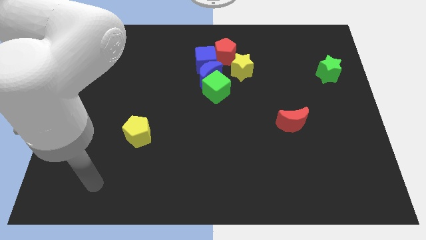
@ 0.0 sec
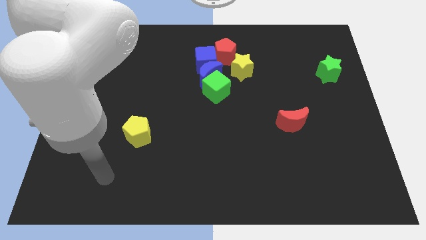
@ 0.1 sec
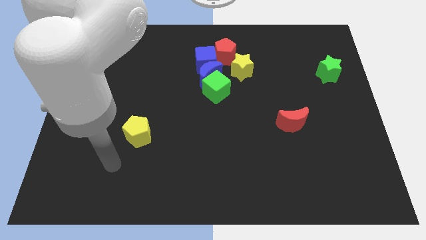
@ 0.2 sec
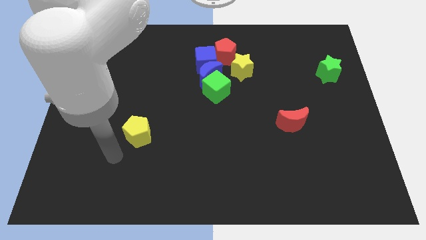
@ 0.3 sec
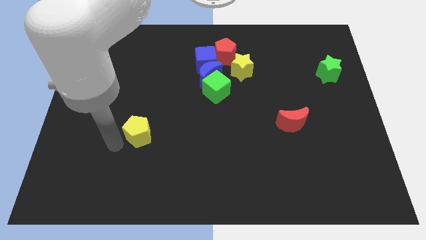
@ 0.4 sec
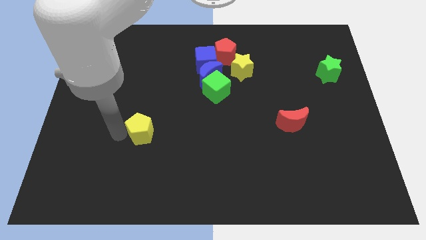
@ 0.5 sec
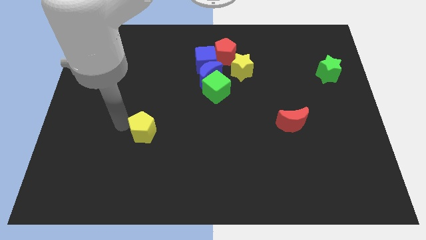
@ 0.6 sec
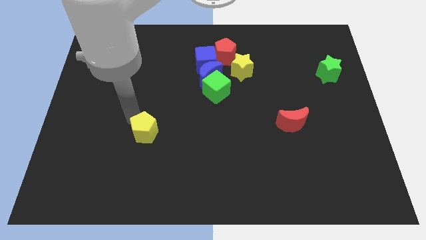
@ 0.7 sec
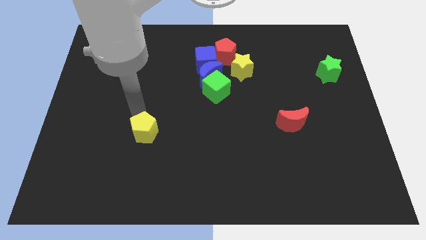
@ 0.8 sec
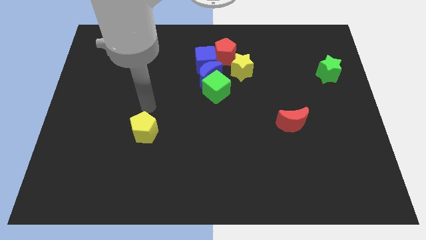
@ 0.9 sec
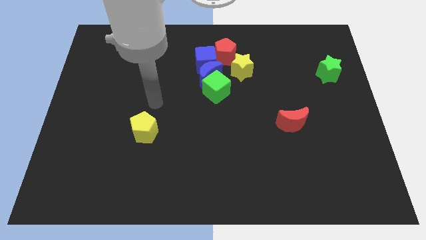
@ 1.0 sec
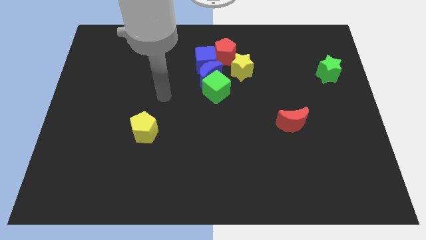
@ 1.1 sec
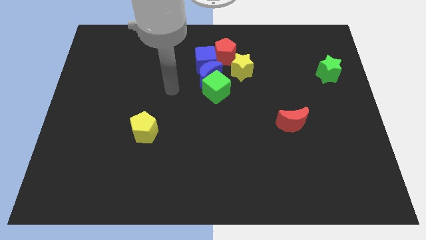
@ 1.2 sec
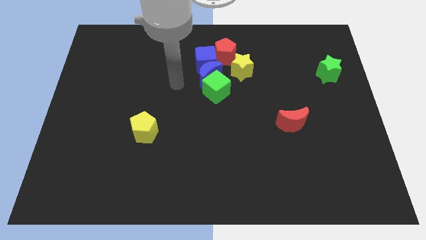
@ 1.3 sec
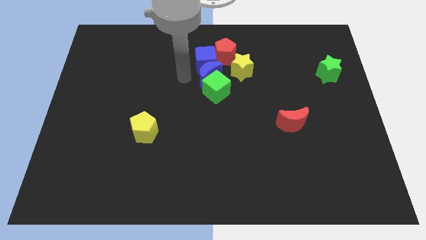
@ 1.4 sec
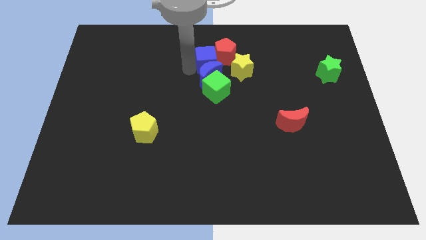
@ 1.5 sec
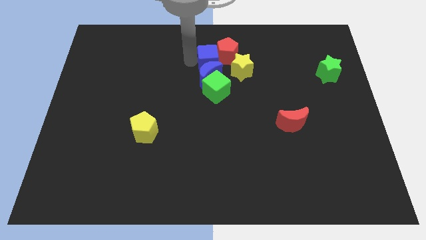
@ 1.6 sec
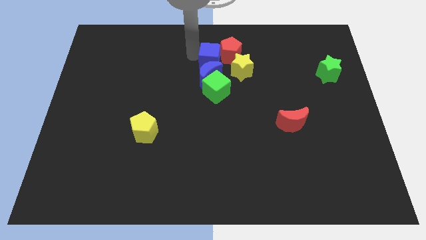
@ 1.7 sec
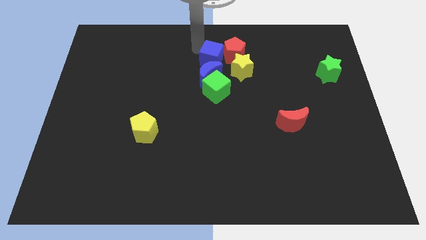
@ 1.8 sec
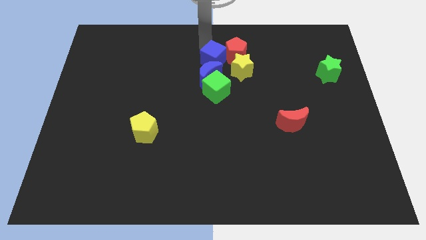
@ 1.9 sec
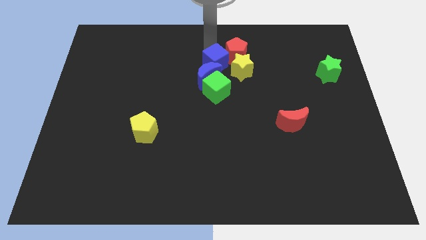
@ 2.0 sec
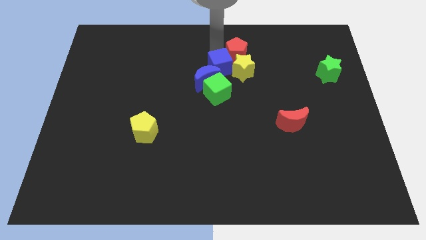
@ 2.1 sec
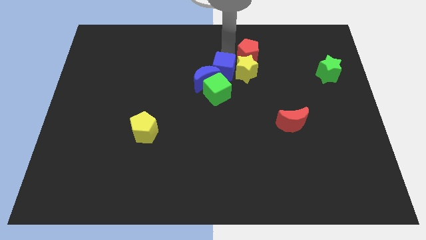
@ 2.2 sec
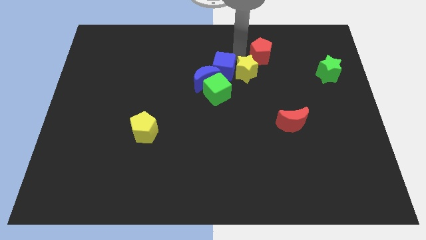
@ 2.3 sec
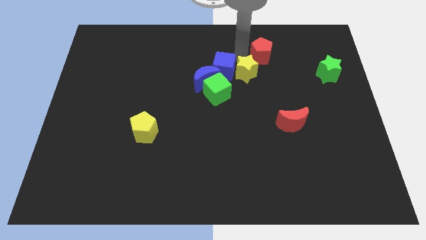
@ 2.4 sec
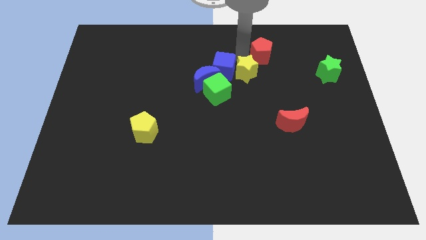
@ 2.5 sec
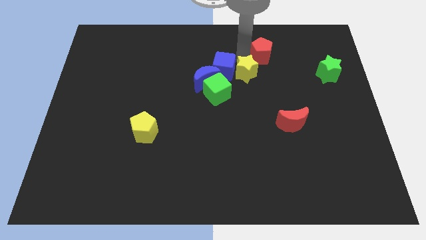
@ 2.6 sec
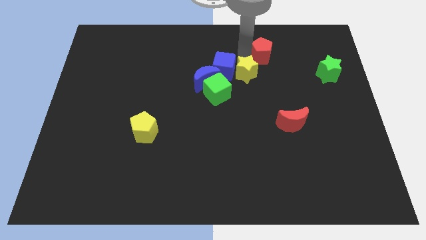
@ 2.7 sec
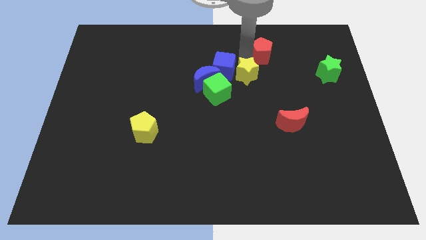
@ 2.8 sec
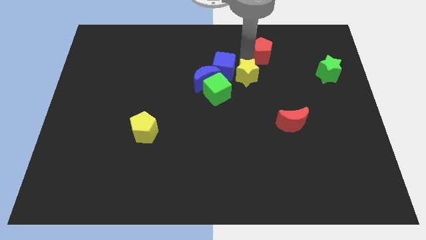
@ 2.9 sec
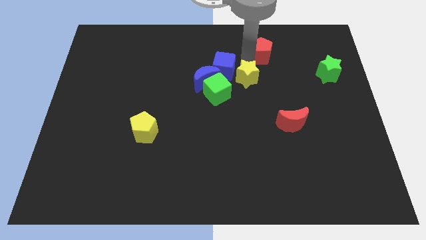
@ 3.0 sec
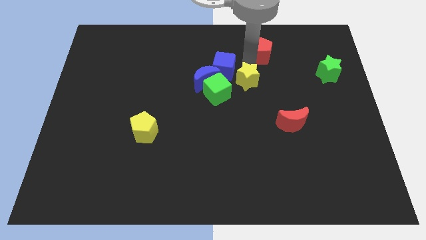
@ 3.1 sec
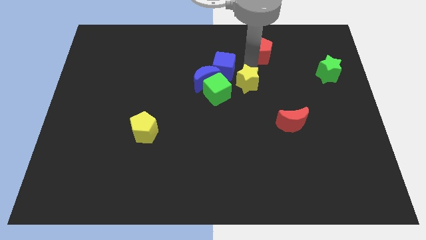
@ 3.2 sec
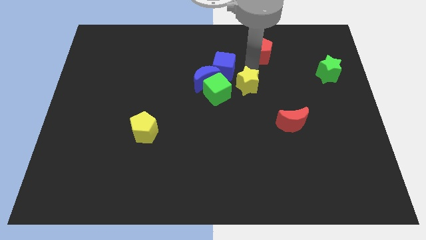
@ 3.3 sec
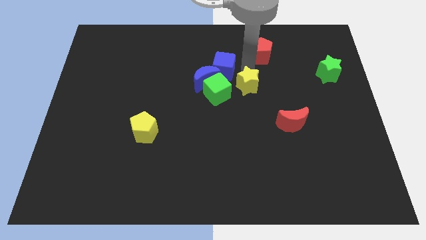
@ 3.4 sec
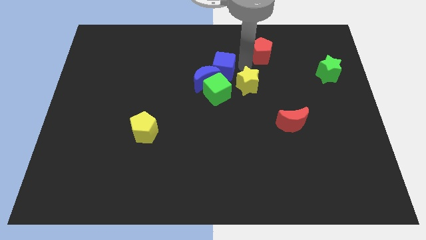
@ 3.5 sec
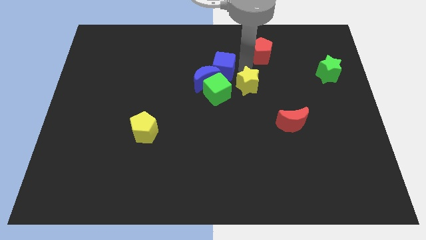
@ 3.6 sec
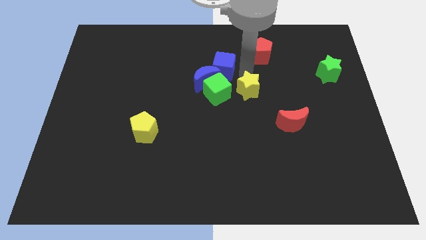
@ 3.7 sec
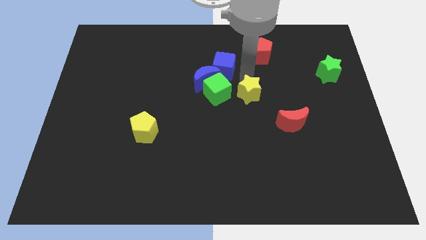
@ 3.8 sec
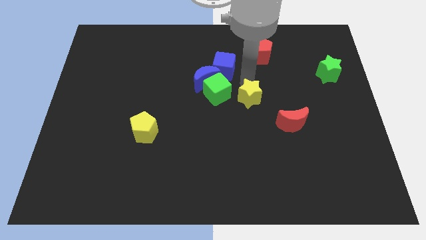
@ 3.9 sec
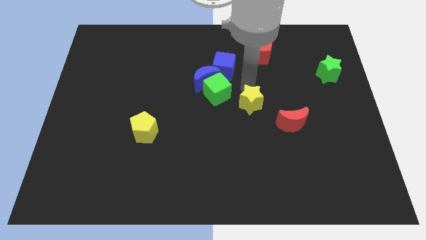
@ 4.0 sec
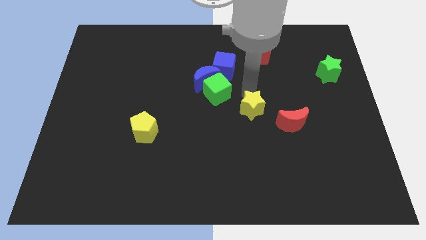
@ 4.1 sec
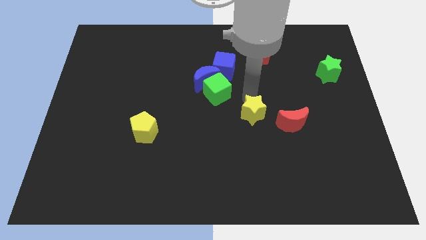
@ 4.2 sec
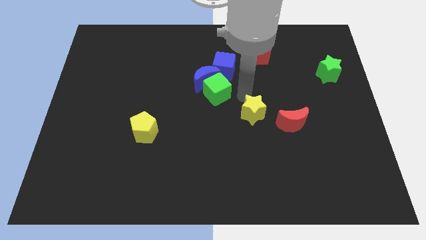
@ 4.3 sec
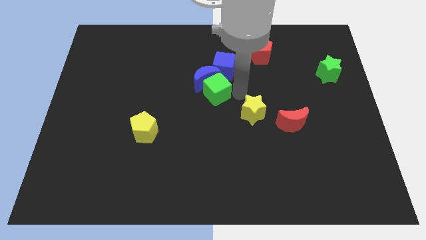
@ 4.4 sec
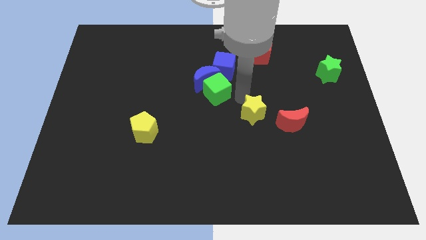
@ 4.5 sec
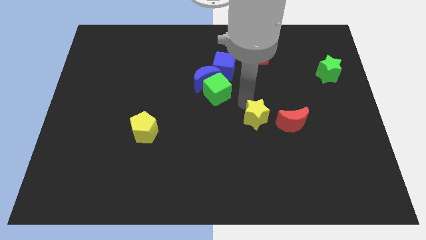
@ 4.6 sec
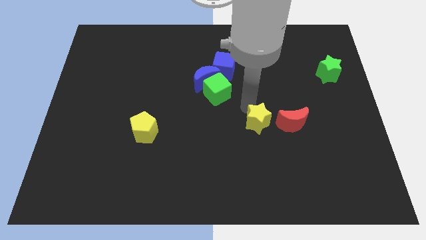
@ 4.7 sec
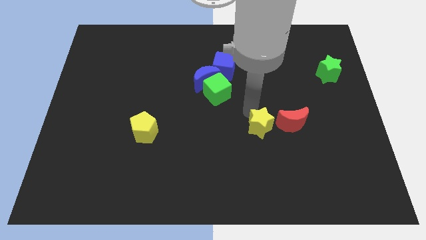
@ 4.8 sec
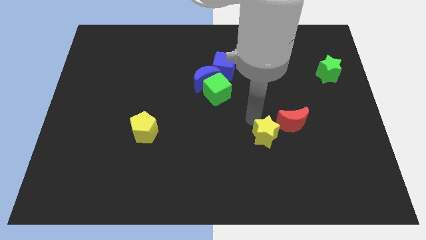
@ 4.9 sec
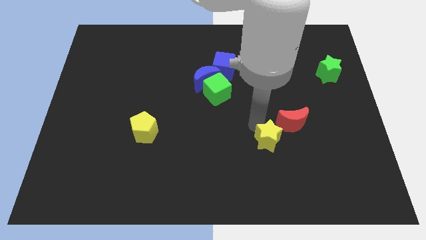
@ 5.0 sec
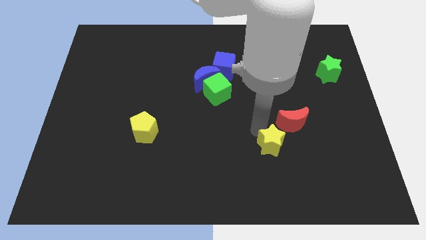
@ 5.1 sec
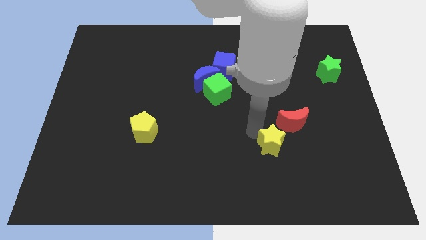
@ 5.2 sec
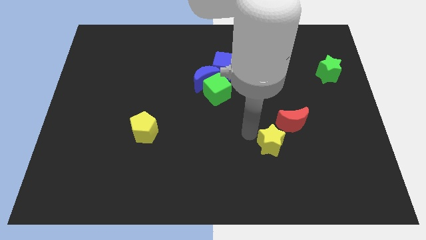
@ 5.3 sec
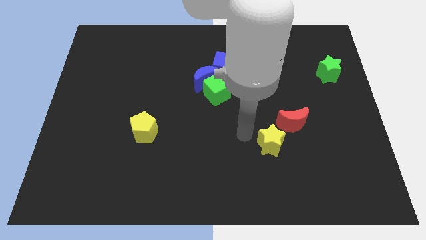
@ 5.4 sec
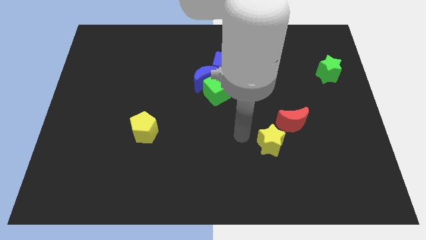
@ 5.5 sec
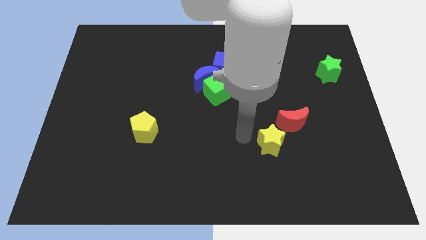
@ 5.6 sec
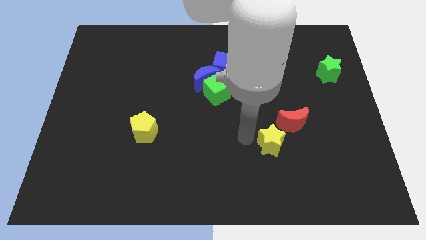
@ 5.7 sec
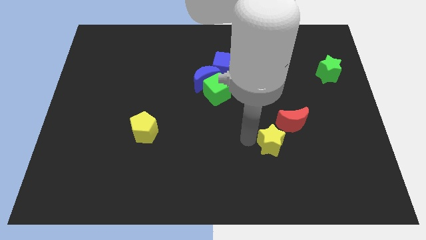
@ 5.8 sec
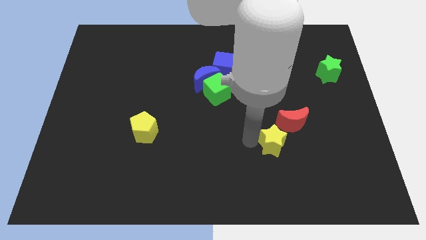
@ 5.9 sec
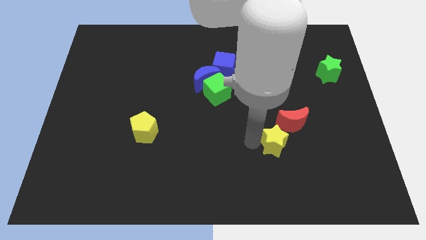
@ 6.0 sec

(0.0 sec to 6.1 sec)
push the yellow star to the bottom side of the red moon
